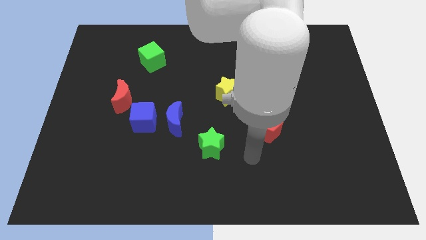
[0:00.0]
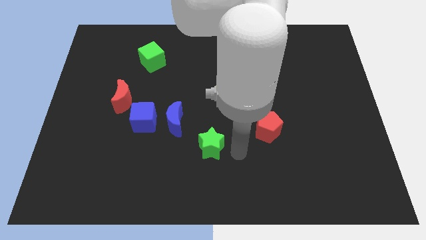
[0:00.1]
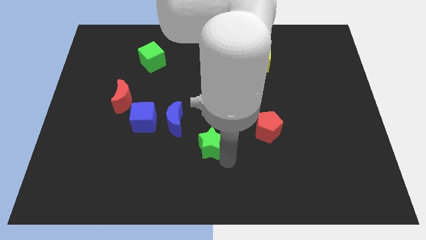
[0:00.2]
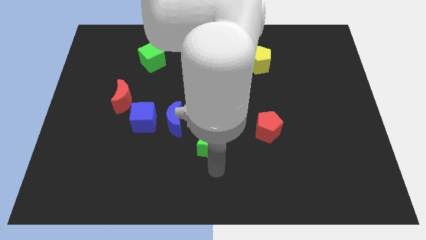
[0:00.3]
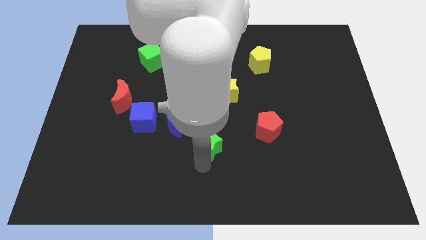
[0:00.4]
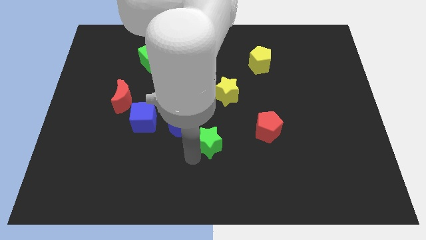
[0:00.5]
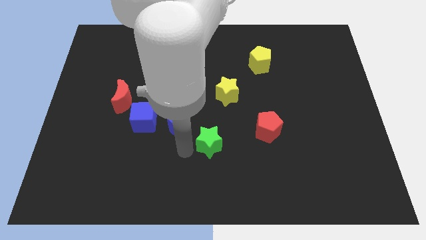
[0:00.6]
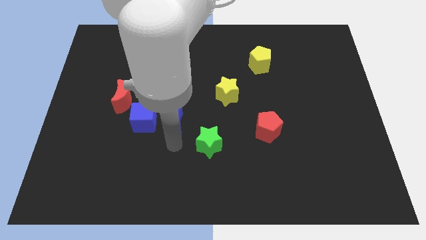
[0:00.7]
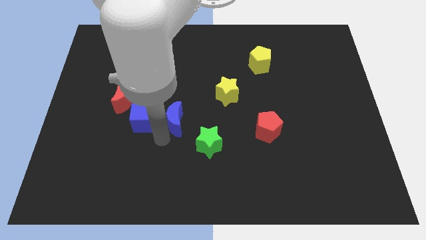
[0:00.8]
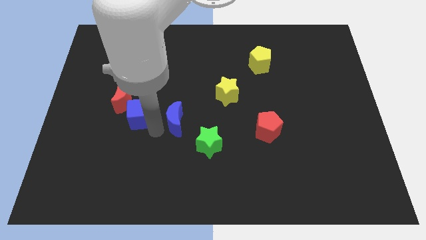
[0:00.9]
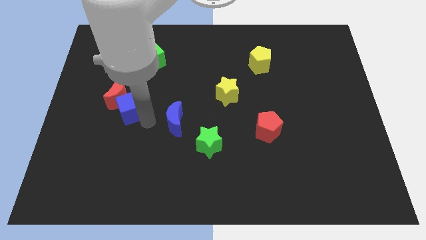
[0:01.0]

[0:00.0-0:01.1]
move the blue moon away from the blue cube

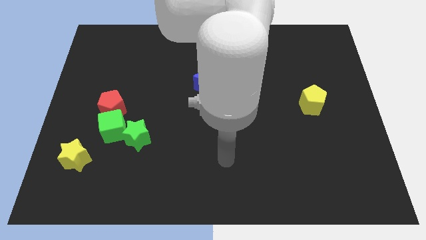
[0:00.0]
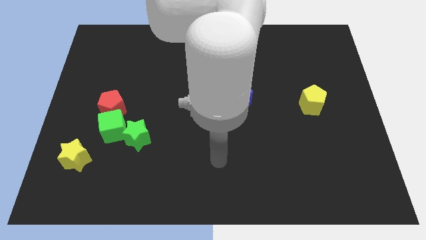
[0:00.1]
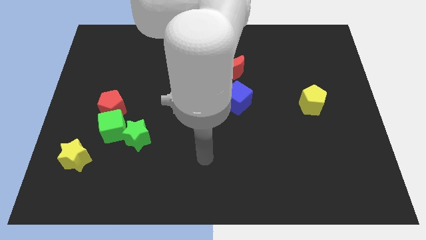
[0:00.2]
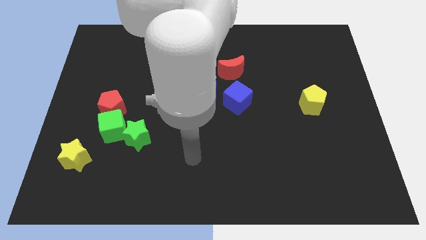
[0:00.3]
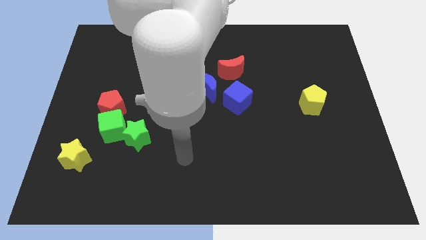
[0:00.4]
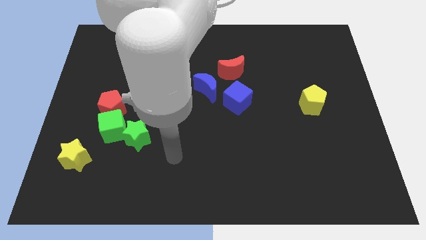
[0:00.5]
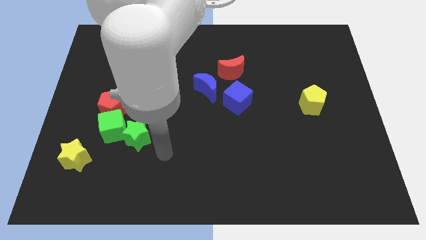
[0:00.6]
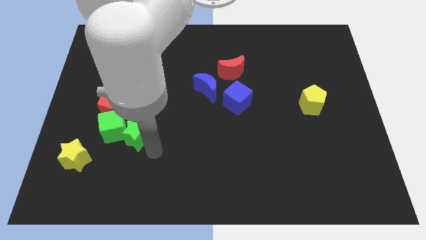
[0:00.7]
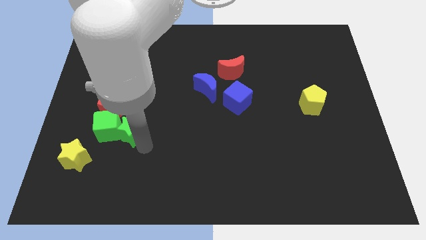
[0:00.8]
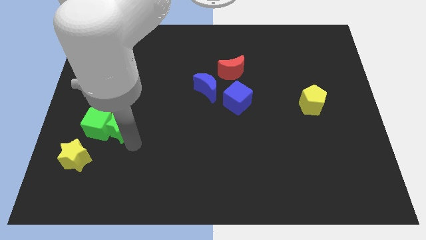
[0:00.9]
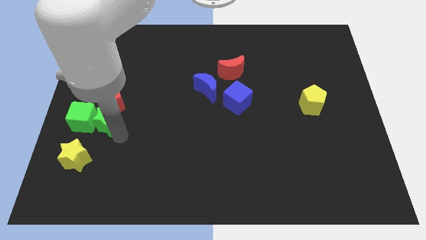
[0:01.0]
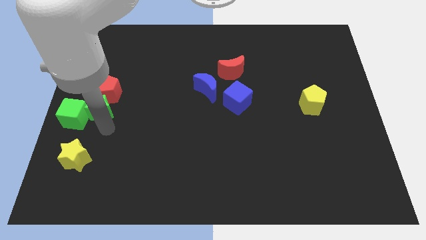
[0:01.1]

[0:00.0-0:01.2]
pull the red pentagon apart from the green cube

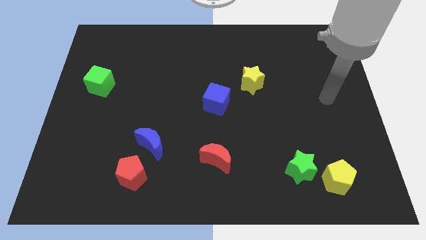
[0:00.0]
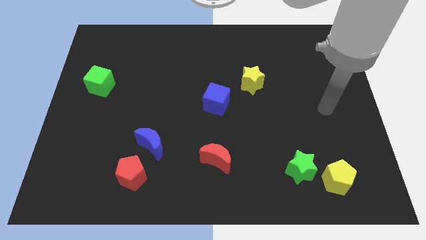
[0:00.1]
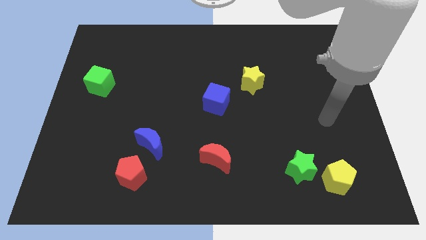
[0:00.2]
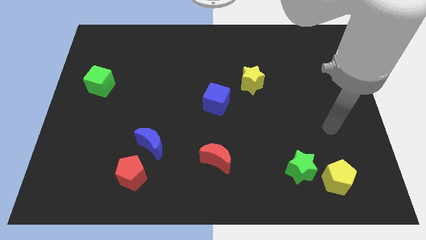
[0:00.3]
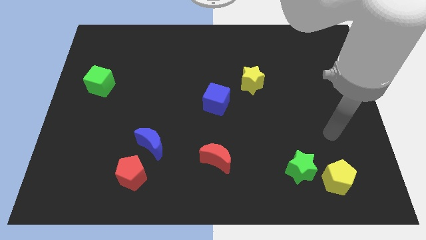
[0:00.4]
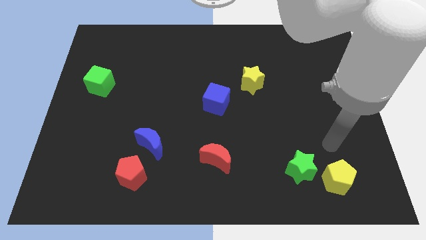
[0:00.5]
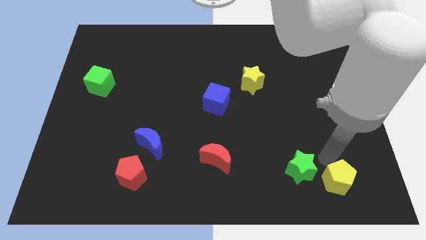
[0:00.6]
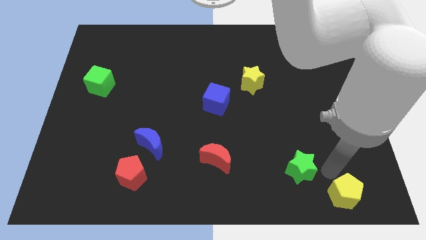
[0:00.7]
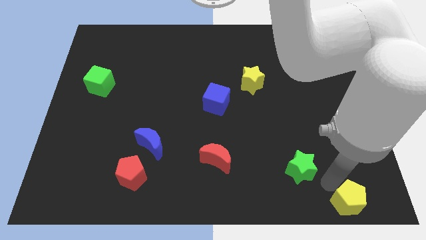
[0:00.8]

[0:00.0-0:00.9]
pull the green star apart from the yellow pentagon

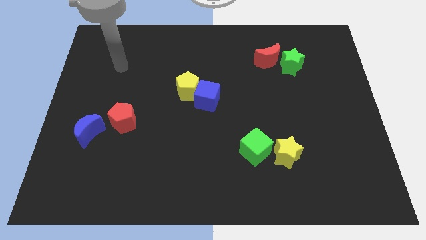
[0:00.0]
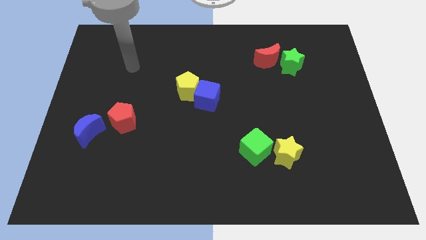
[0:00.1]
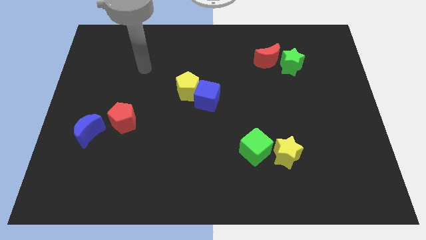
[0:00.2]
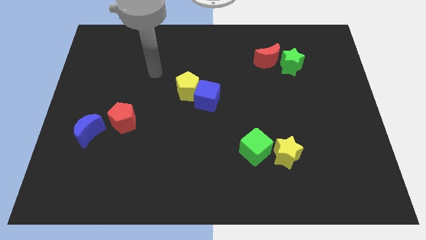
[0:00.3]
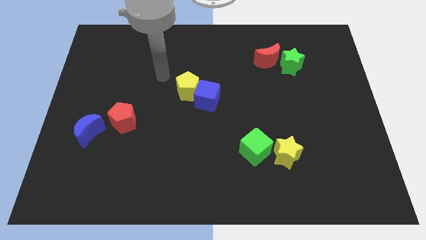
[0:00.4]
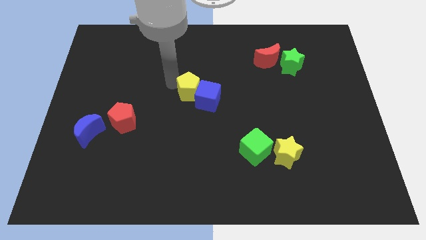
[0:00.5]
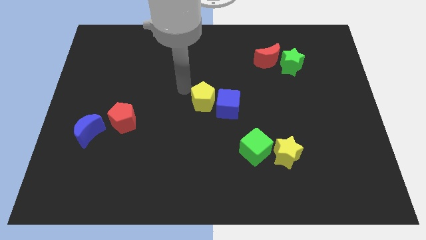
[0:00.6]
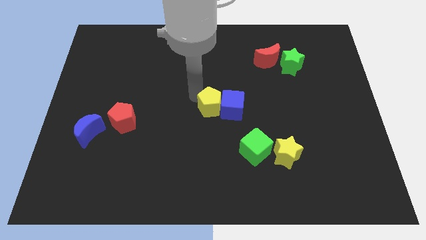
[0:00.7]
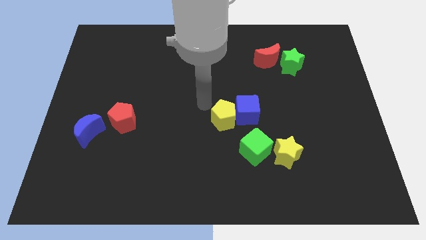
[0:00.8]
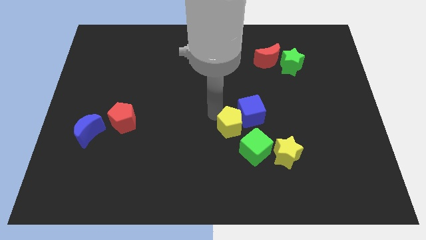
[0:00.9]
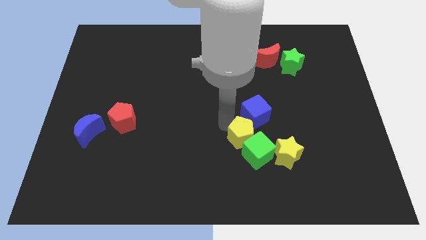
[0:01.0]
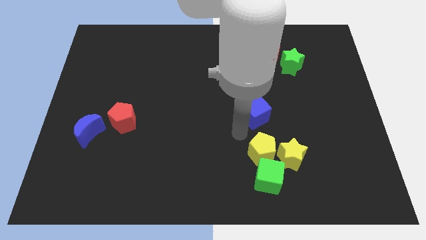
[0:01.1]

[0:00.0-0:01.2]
move the blue cube away from the yellow pentagon

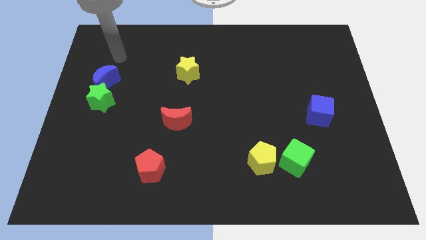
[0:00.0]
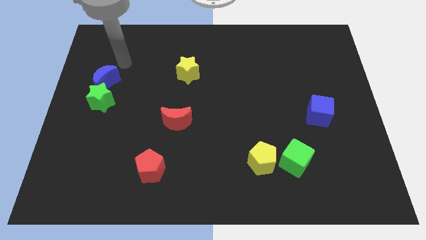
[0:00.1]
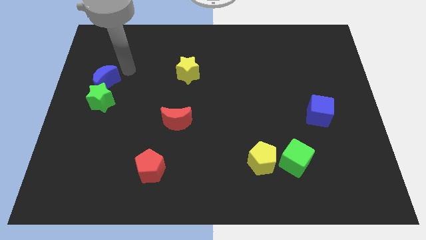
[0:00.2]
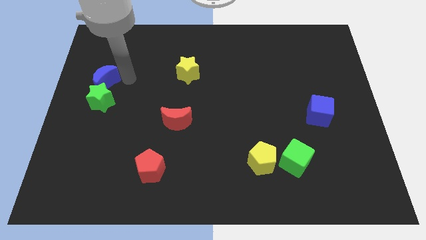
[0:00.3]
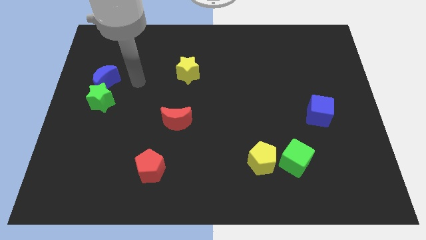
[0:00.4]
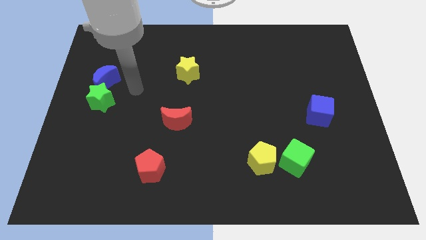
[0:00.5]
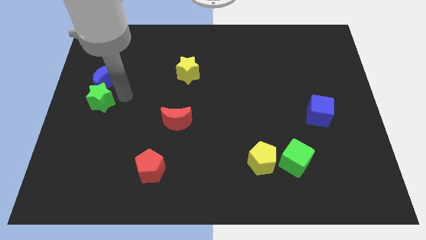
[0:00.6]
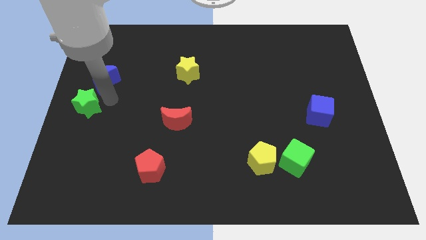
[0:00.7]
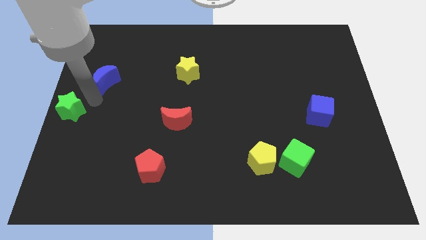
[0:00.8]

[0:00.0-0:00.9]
separate the blue moon from the green star

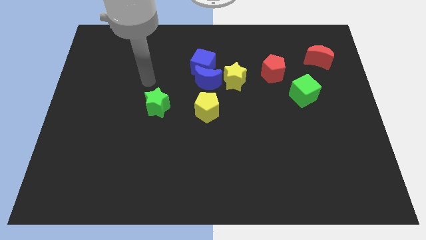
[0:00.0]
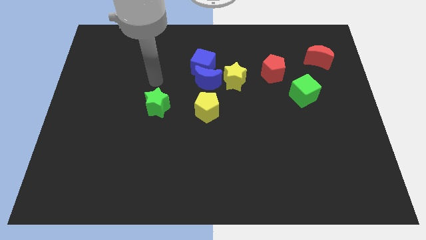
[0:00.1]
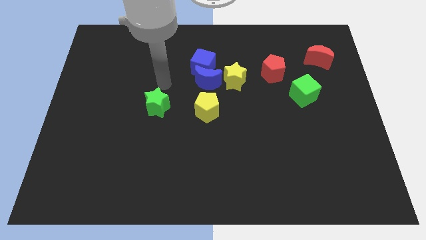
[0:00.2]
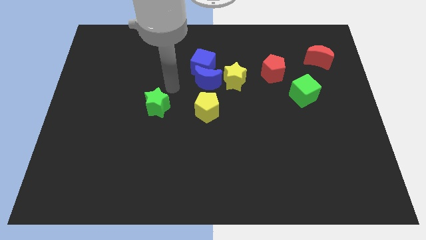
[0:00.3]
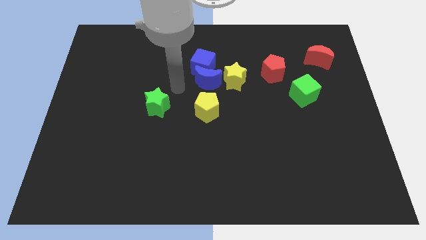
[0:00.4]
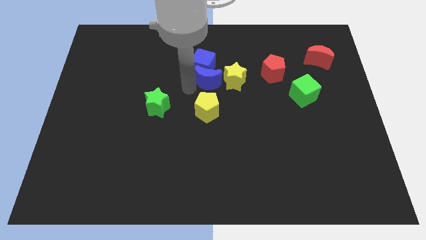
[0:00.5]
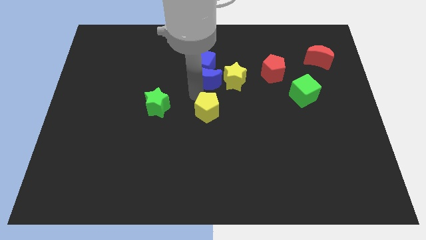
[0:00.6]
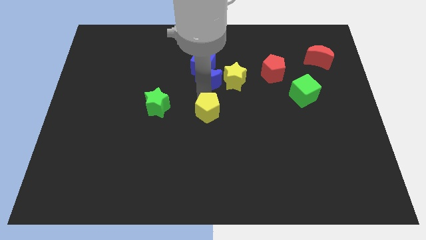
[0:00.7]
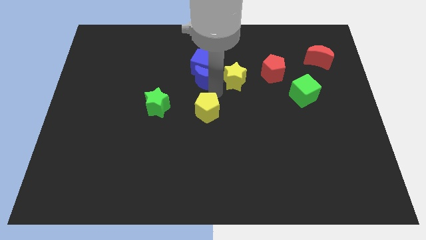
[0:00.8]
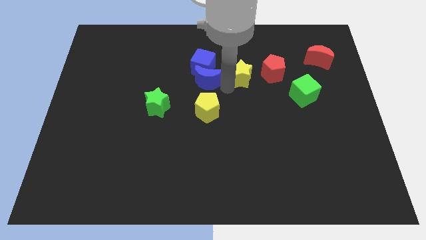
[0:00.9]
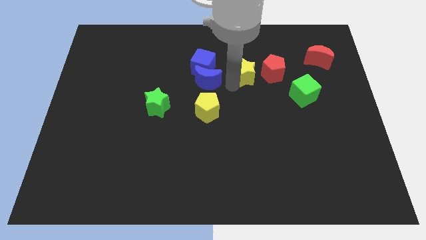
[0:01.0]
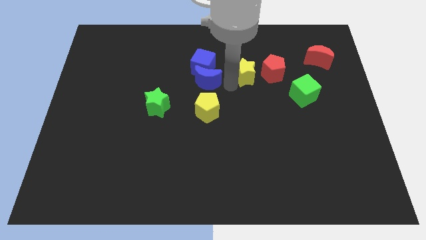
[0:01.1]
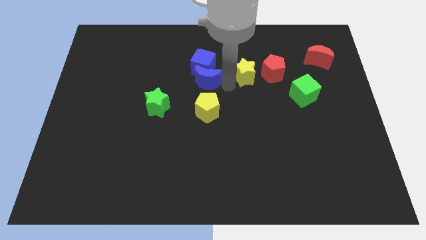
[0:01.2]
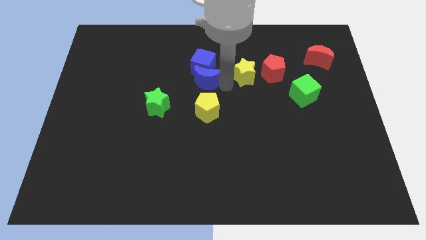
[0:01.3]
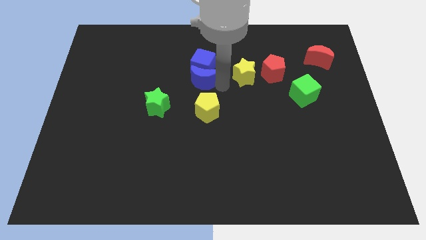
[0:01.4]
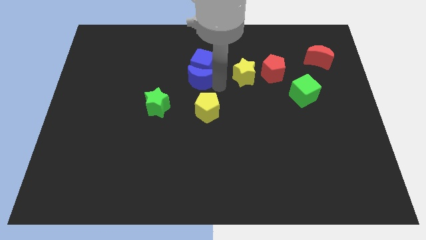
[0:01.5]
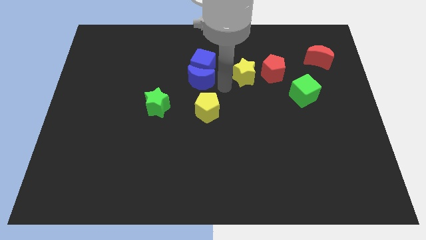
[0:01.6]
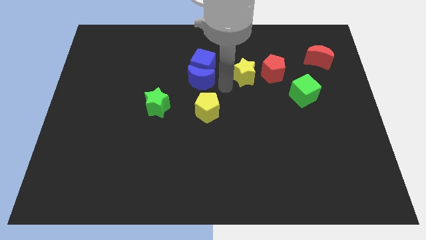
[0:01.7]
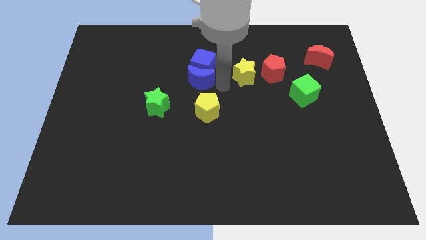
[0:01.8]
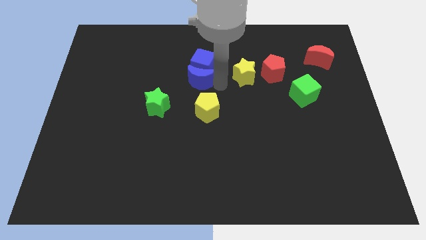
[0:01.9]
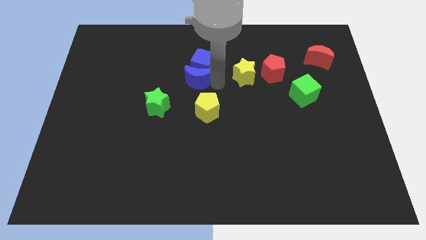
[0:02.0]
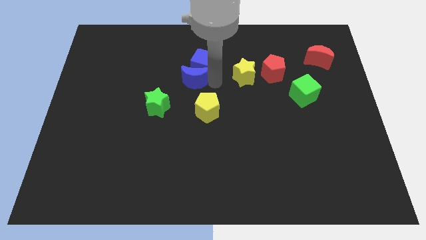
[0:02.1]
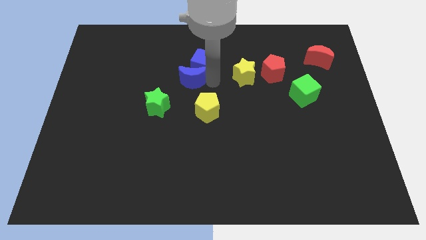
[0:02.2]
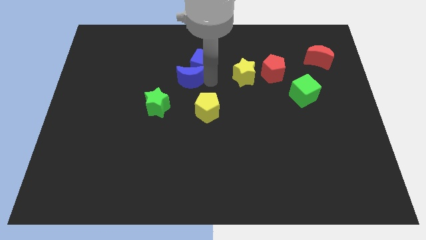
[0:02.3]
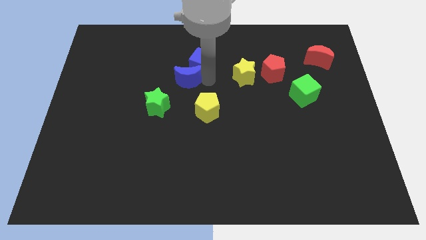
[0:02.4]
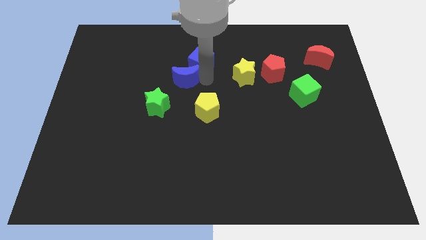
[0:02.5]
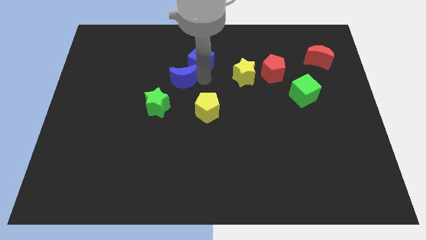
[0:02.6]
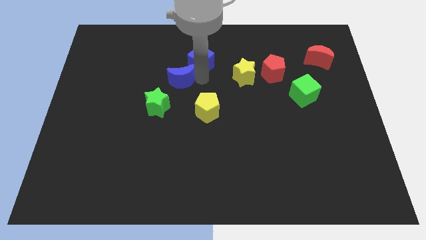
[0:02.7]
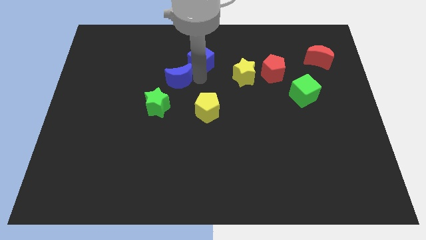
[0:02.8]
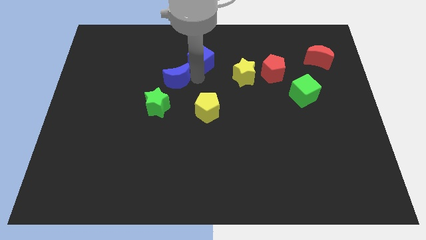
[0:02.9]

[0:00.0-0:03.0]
move the blue moon away from the clump

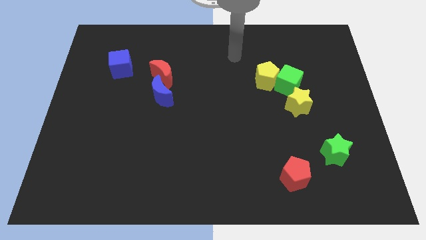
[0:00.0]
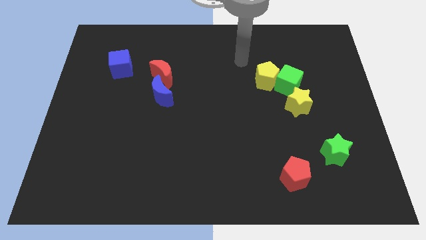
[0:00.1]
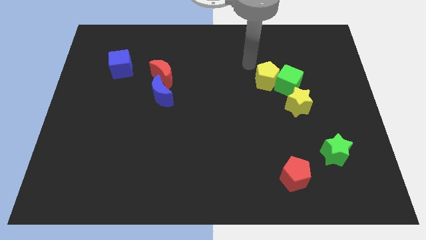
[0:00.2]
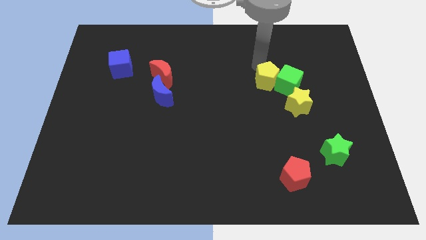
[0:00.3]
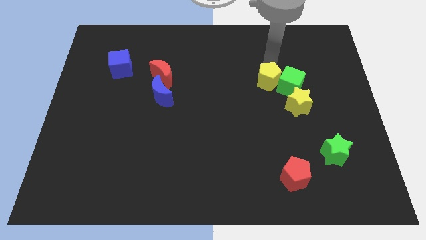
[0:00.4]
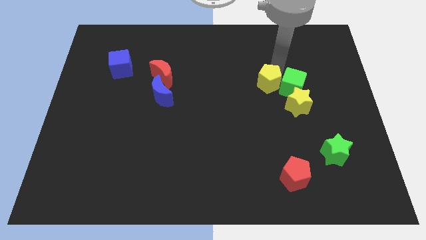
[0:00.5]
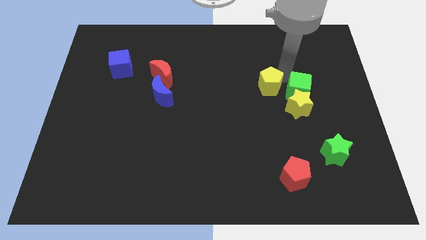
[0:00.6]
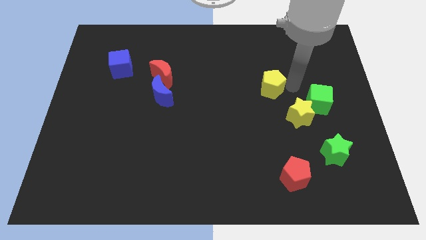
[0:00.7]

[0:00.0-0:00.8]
pull the yellow pentagon apart from the green cube
